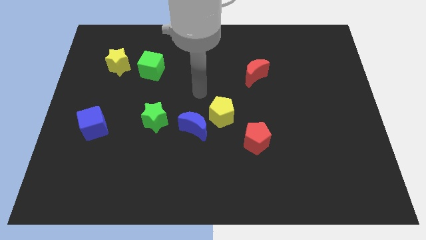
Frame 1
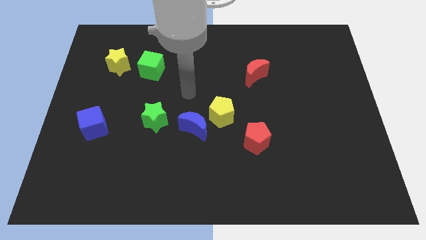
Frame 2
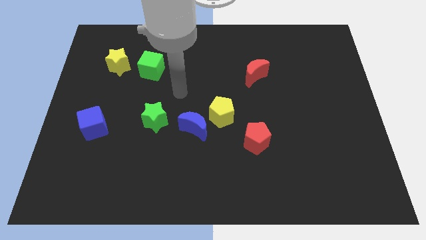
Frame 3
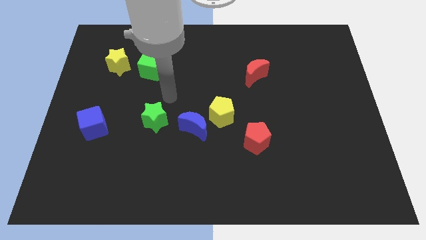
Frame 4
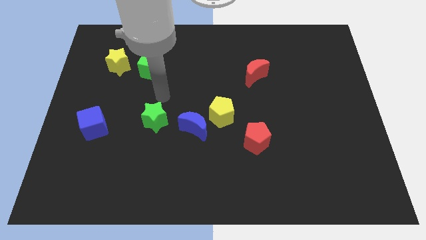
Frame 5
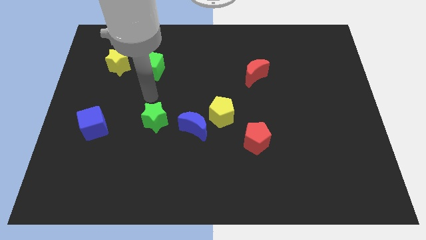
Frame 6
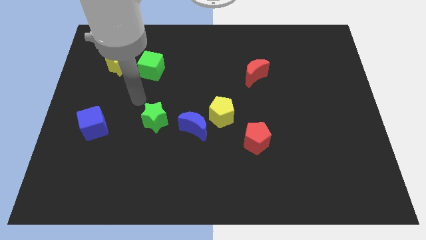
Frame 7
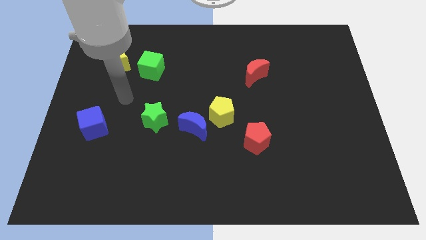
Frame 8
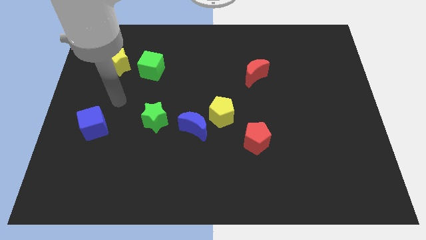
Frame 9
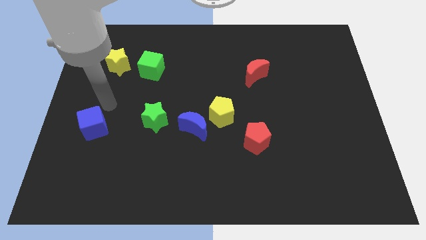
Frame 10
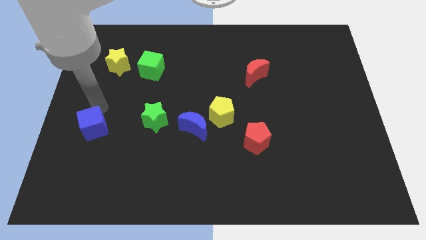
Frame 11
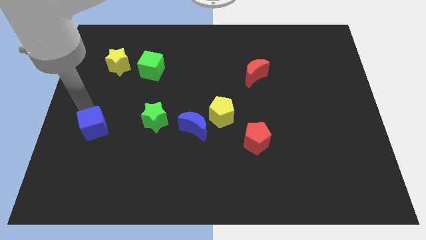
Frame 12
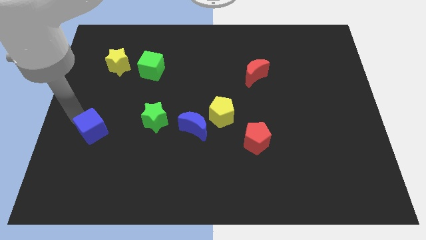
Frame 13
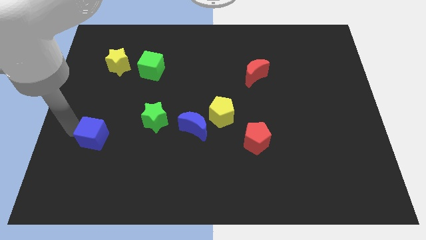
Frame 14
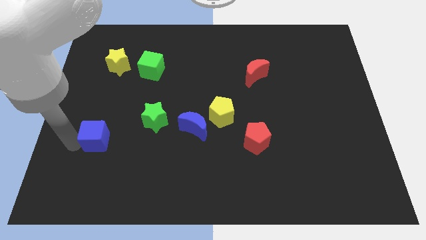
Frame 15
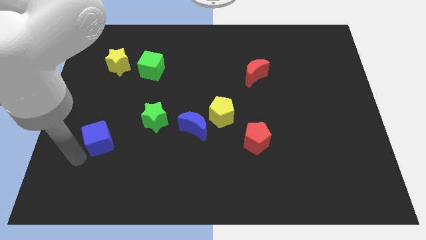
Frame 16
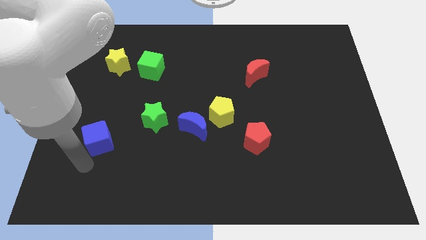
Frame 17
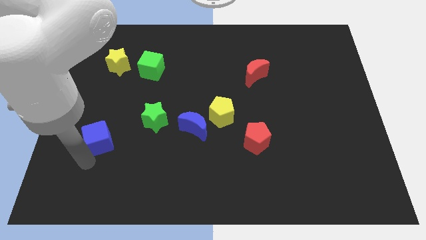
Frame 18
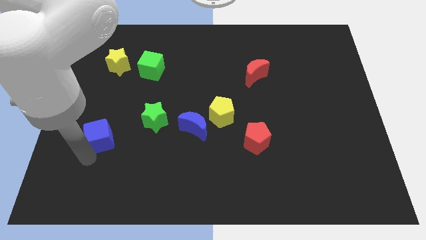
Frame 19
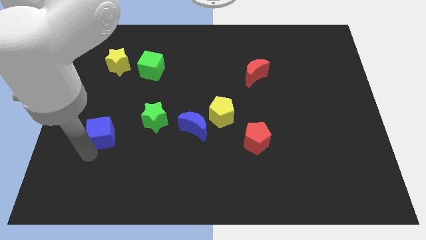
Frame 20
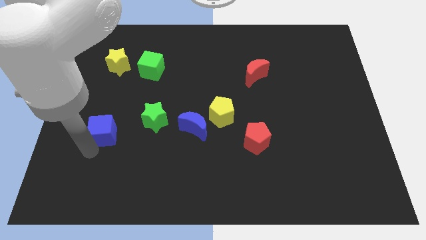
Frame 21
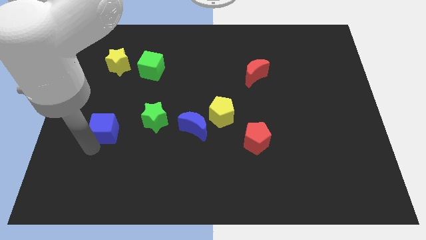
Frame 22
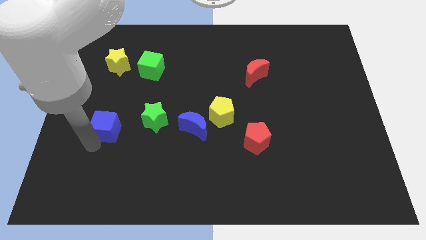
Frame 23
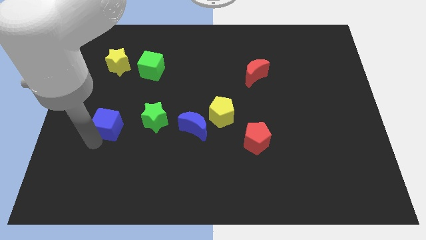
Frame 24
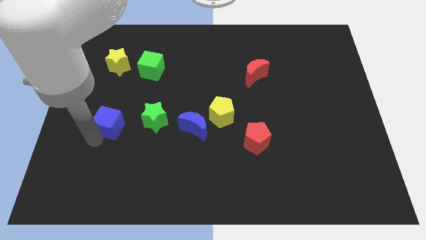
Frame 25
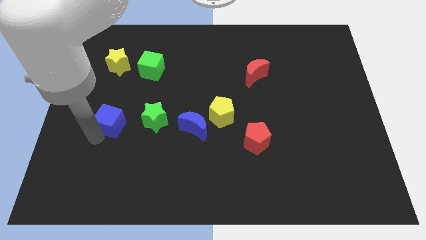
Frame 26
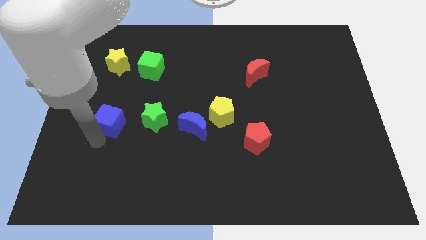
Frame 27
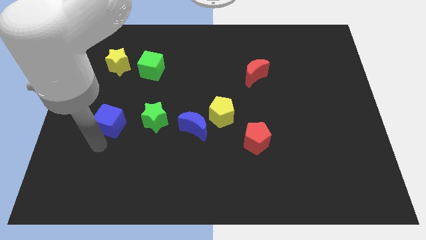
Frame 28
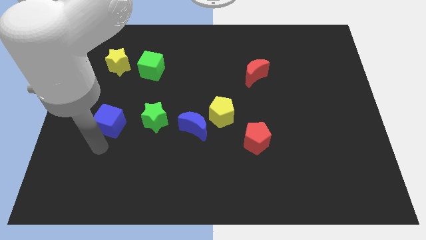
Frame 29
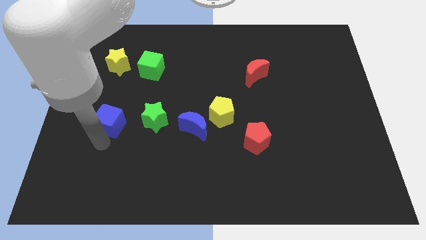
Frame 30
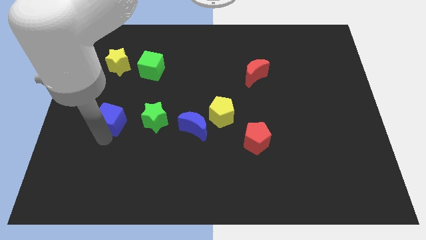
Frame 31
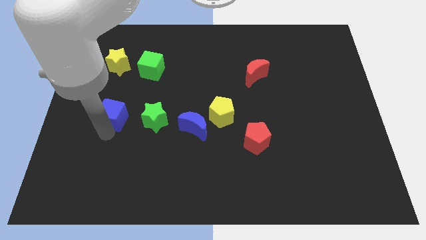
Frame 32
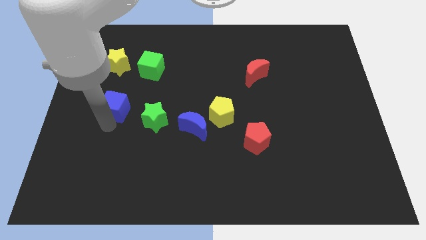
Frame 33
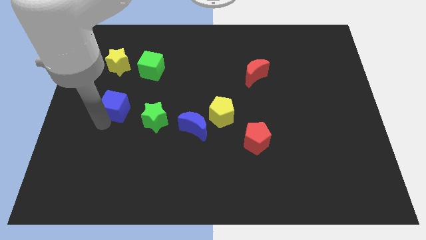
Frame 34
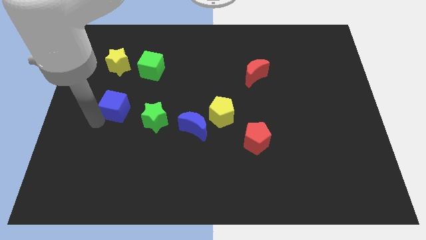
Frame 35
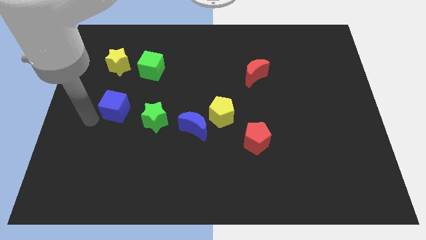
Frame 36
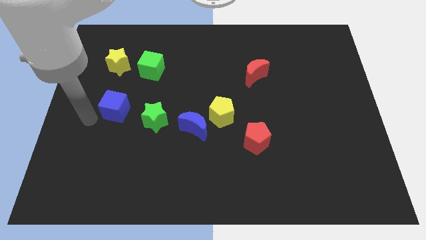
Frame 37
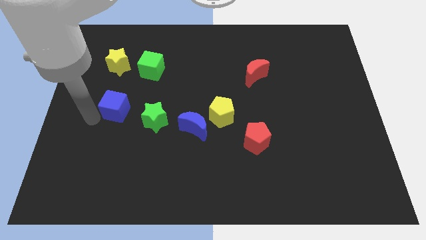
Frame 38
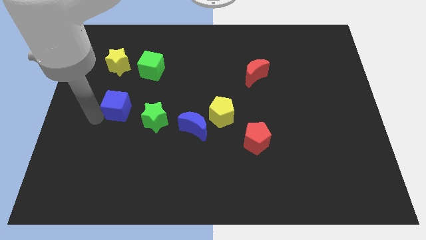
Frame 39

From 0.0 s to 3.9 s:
move the blue cube up and then right somewhat

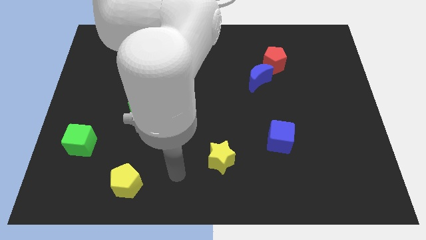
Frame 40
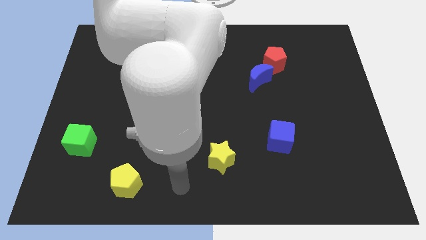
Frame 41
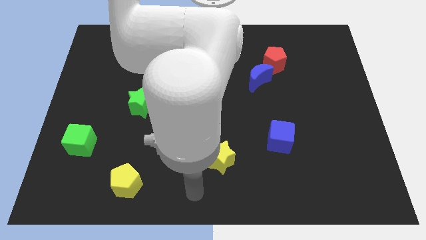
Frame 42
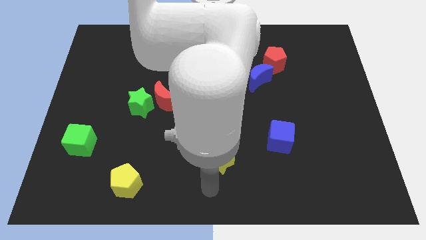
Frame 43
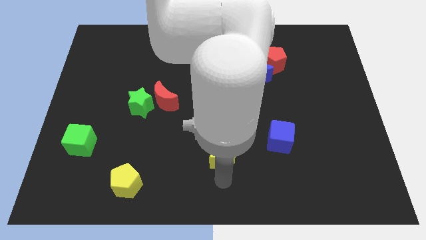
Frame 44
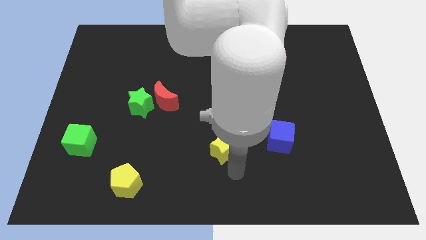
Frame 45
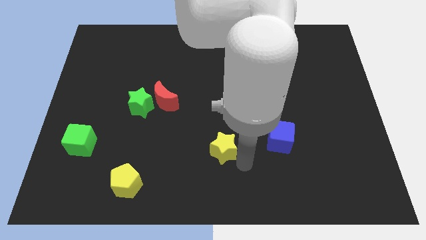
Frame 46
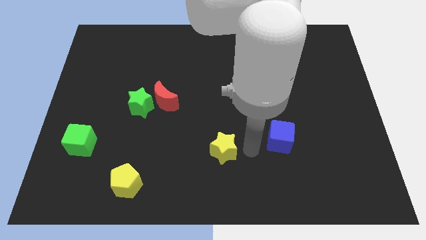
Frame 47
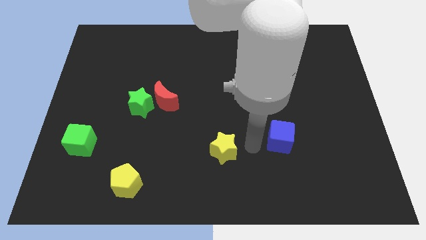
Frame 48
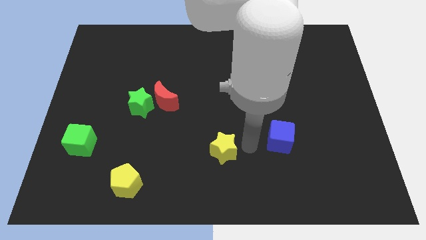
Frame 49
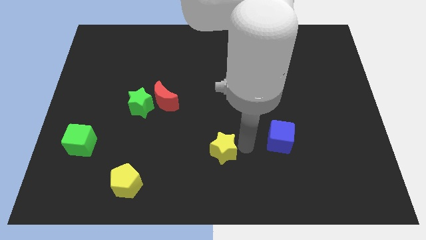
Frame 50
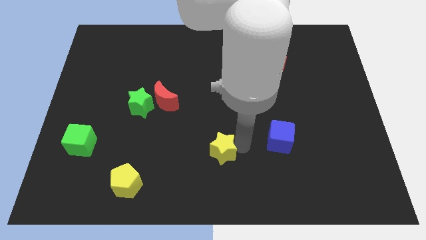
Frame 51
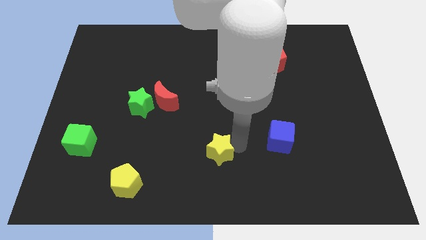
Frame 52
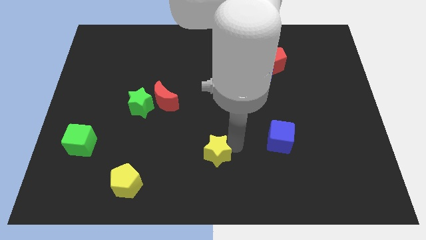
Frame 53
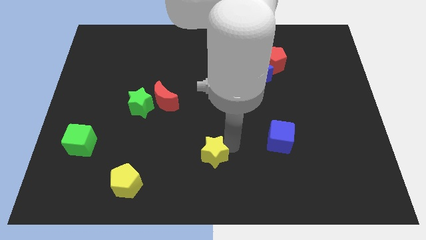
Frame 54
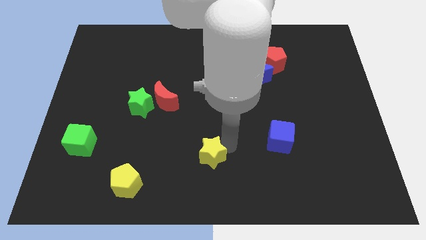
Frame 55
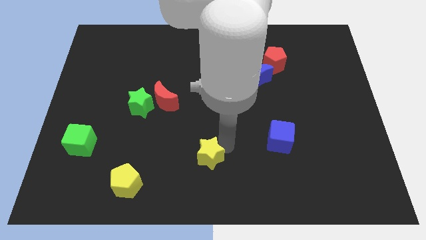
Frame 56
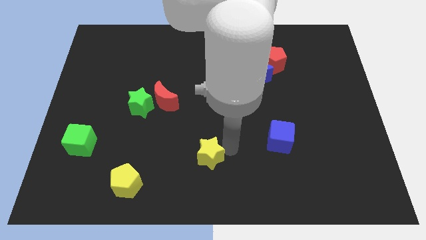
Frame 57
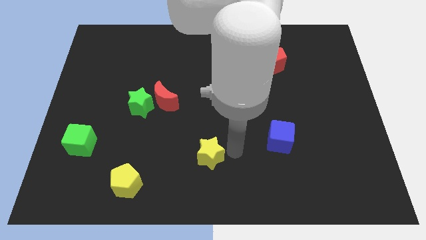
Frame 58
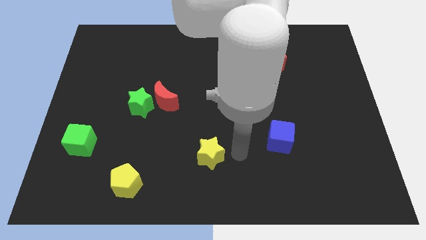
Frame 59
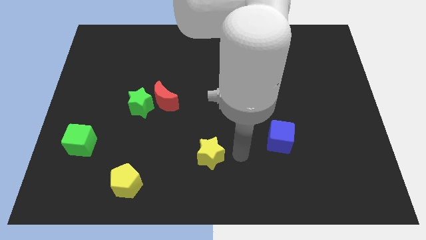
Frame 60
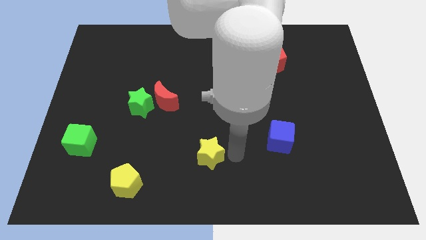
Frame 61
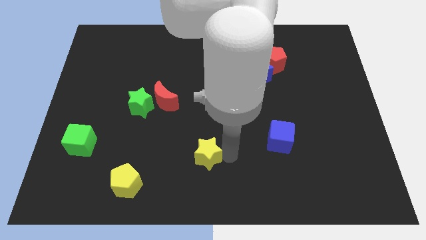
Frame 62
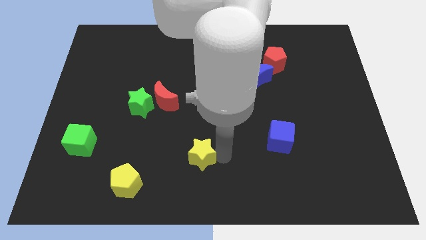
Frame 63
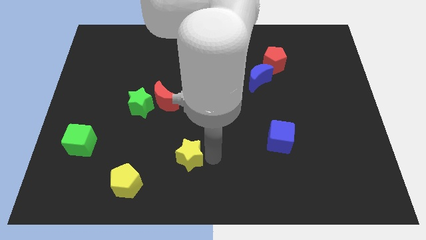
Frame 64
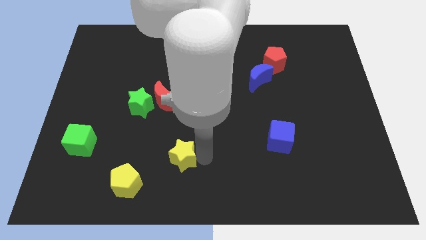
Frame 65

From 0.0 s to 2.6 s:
slightly slide the yellow star left

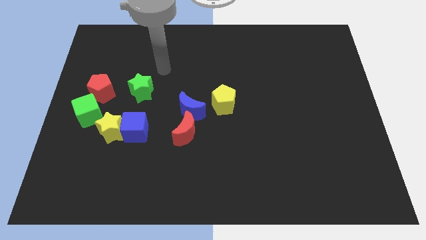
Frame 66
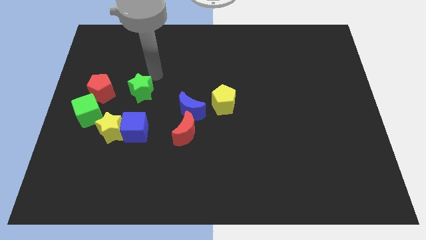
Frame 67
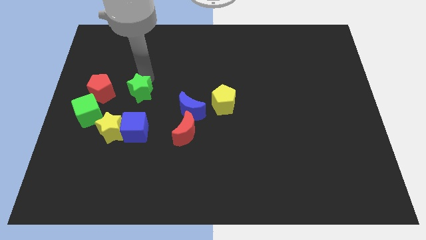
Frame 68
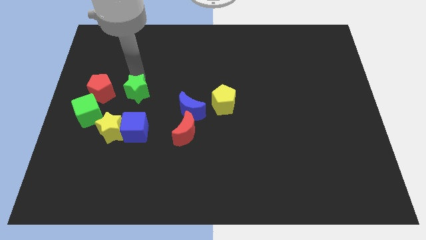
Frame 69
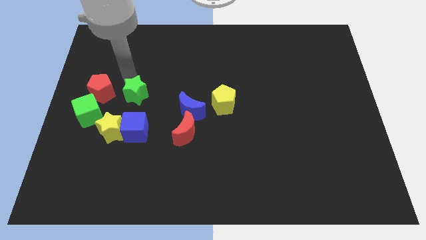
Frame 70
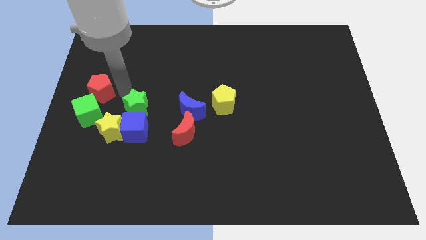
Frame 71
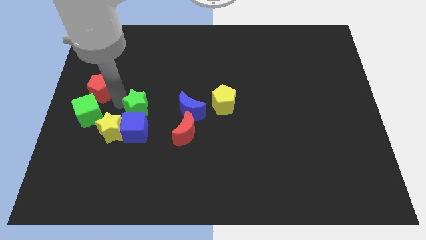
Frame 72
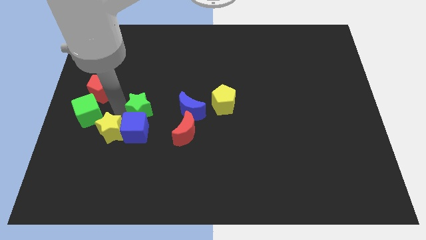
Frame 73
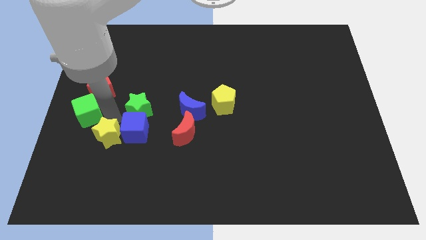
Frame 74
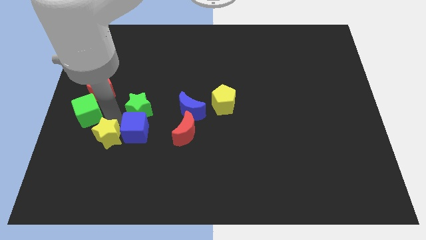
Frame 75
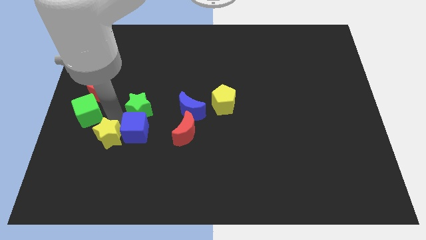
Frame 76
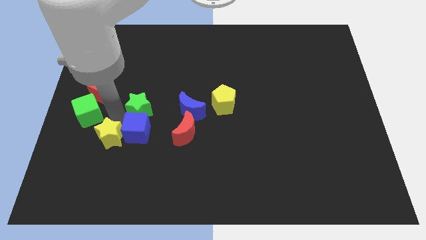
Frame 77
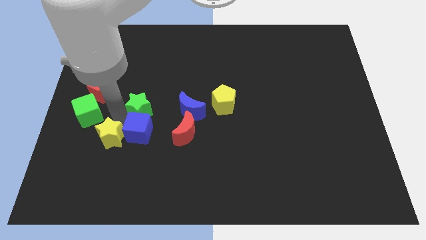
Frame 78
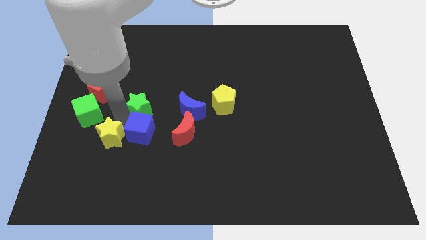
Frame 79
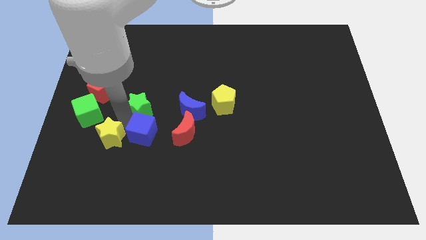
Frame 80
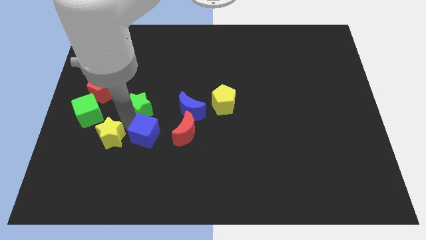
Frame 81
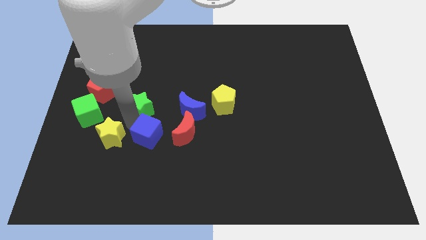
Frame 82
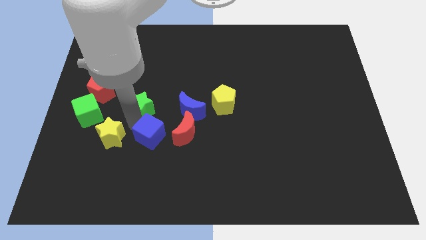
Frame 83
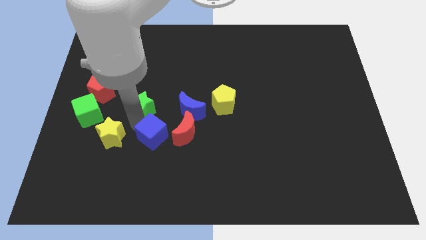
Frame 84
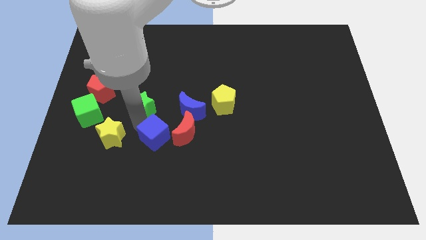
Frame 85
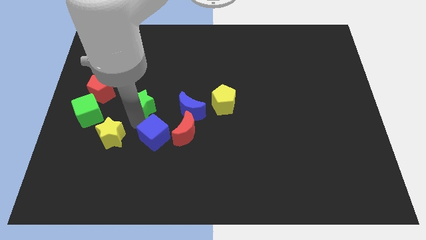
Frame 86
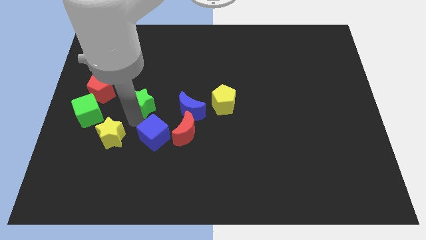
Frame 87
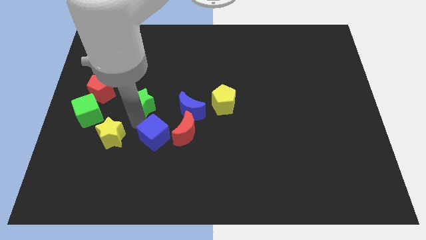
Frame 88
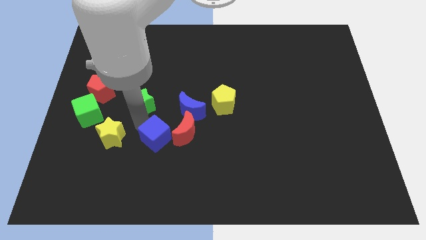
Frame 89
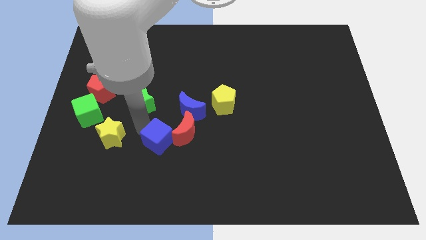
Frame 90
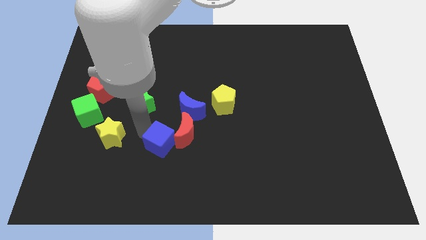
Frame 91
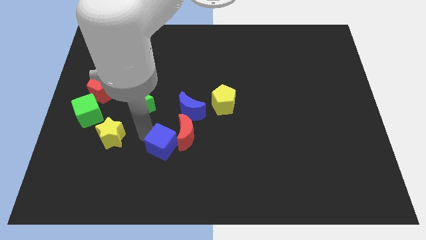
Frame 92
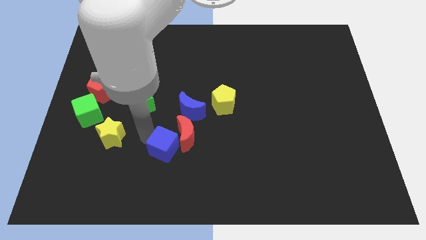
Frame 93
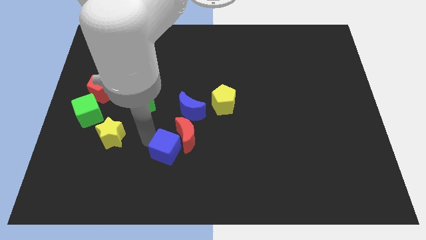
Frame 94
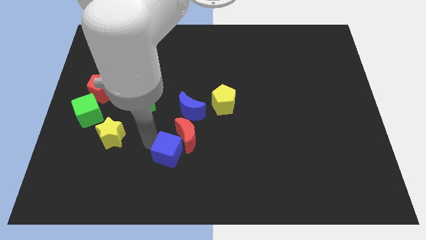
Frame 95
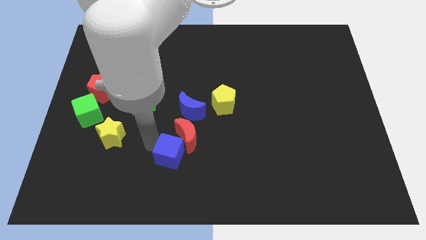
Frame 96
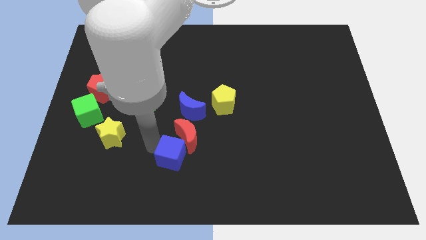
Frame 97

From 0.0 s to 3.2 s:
slide the blue cube a little bit right
